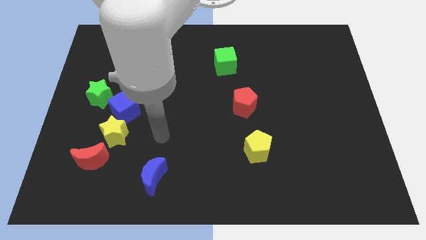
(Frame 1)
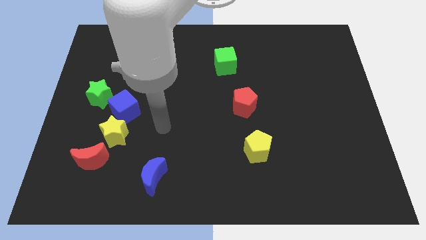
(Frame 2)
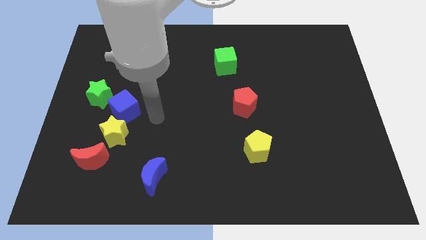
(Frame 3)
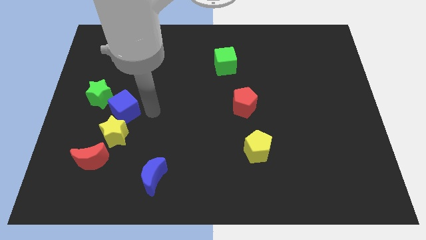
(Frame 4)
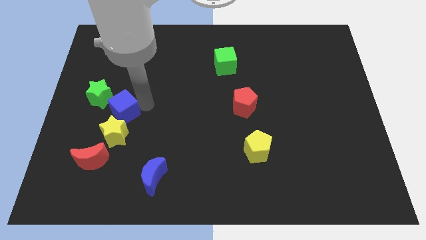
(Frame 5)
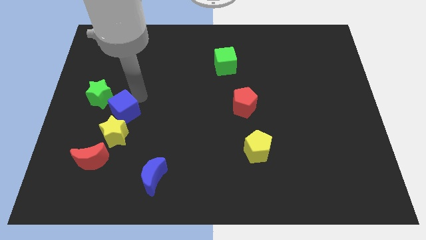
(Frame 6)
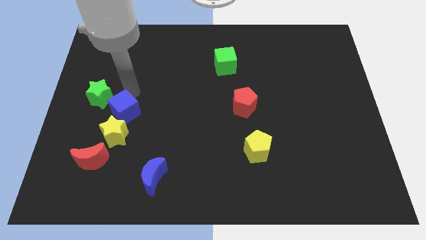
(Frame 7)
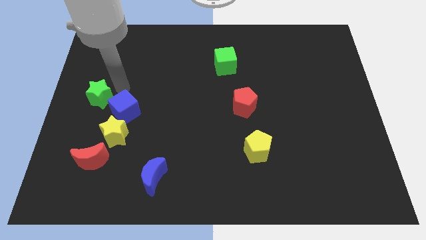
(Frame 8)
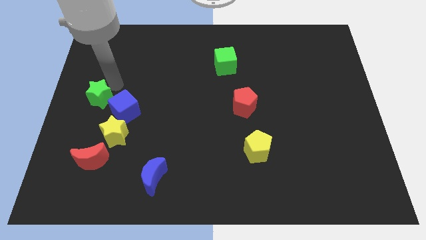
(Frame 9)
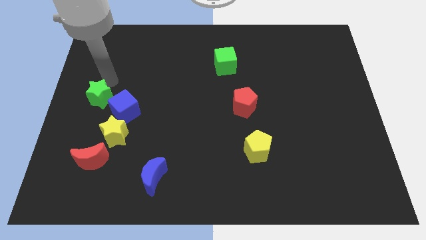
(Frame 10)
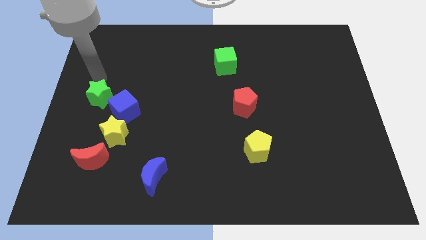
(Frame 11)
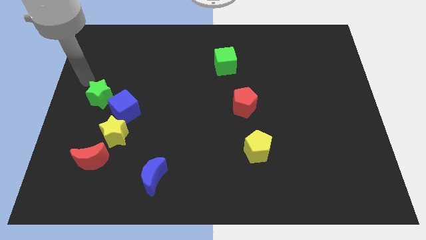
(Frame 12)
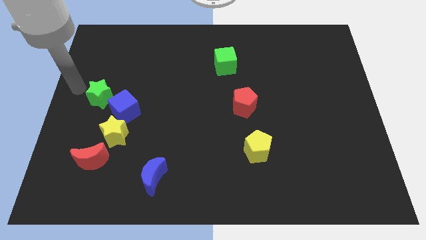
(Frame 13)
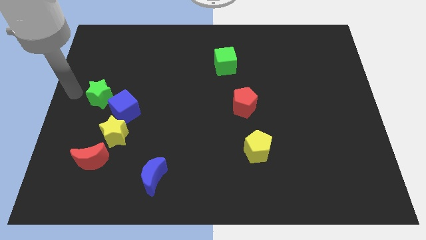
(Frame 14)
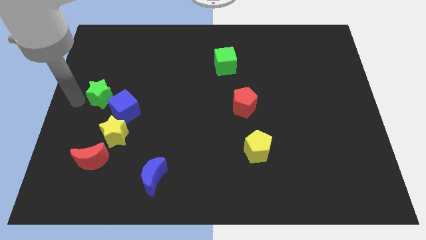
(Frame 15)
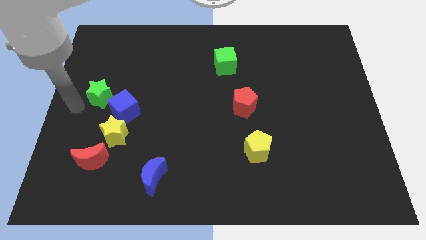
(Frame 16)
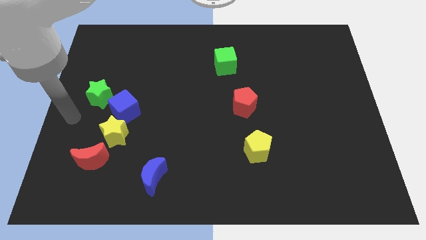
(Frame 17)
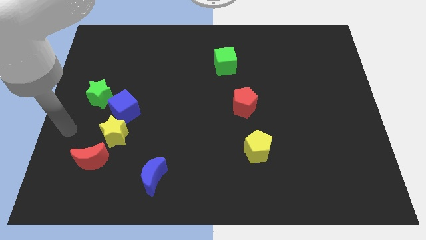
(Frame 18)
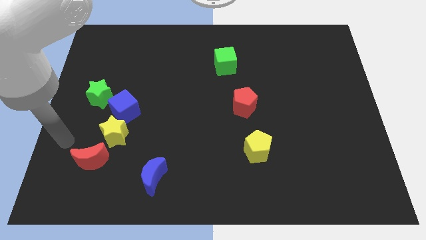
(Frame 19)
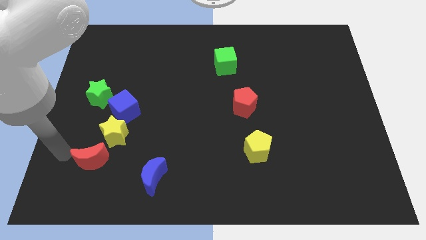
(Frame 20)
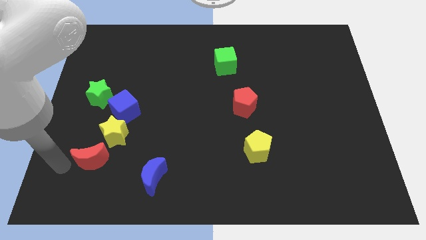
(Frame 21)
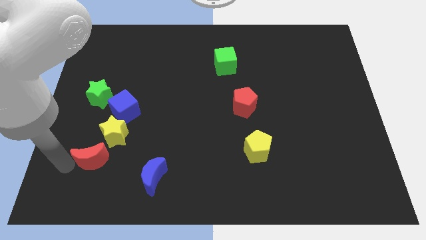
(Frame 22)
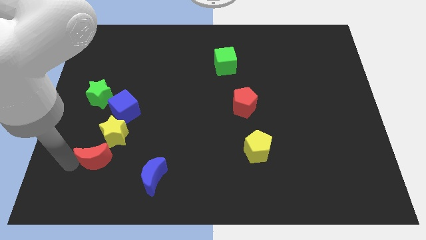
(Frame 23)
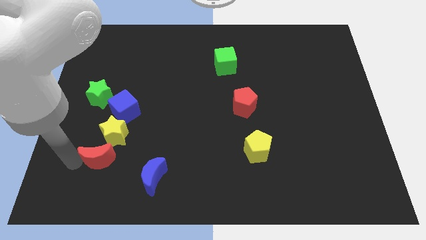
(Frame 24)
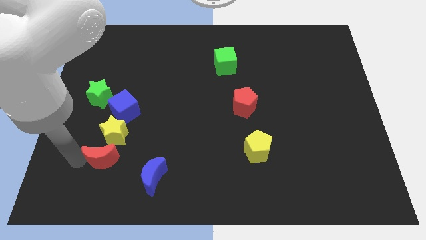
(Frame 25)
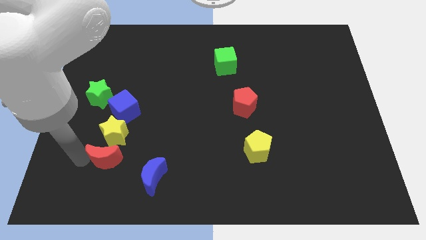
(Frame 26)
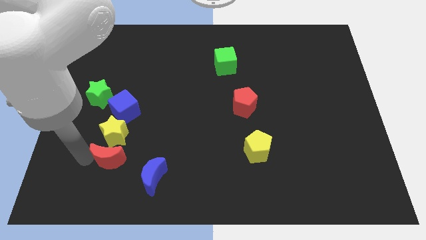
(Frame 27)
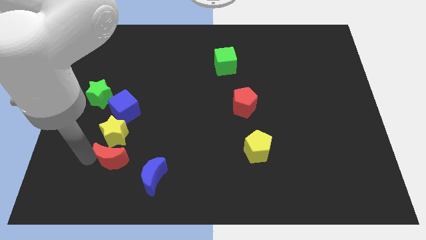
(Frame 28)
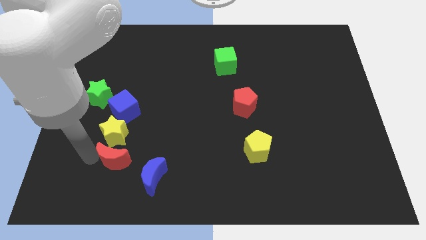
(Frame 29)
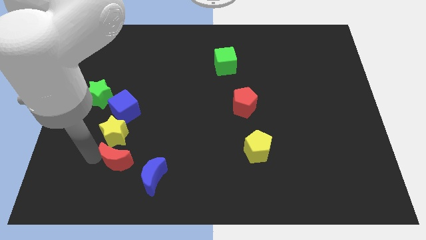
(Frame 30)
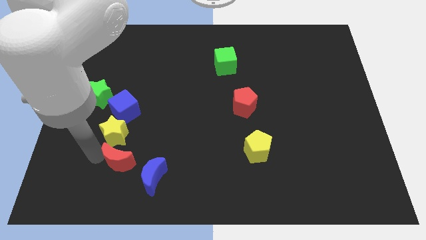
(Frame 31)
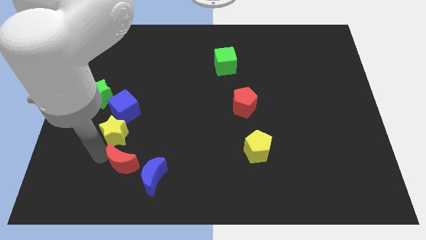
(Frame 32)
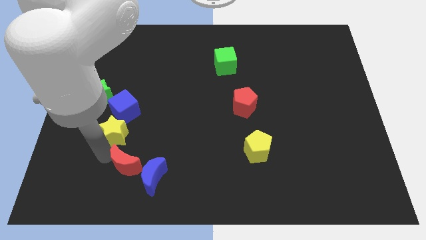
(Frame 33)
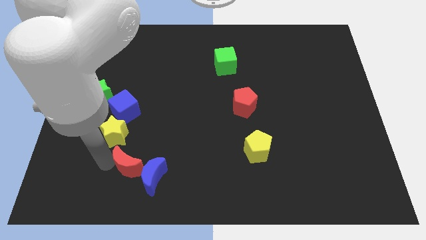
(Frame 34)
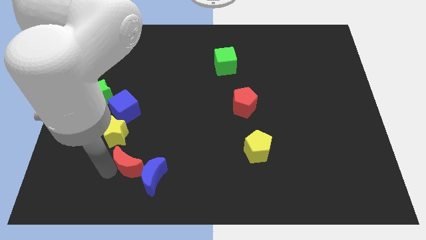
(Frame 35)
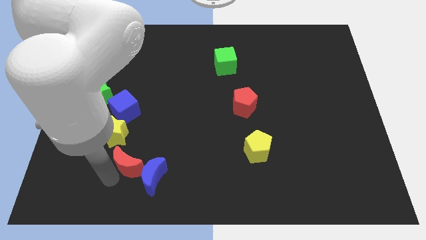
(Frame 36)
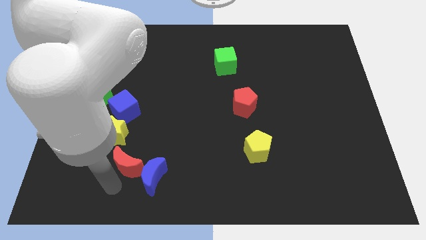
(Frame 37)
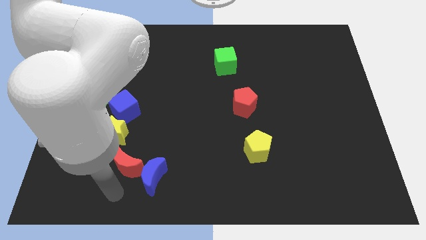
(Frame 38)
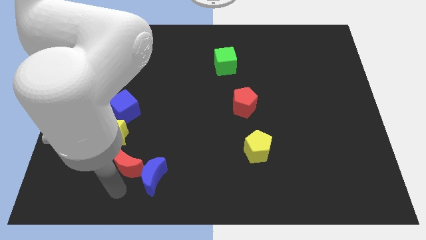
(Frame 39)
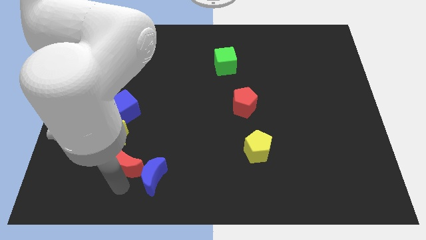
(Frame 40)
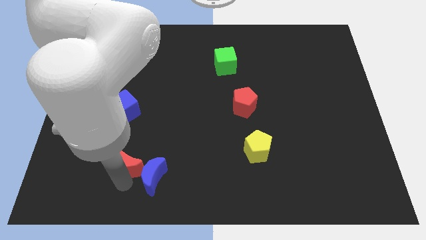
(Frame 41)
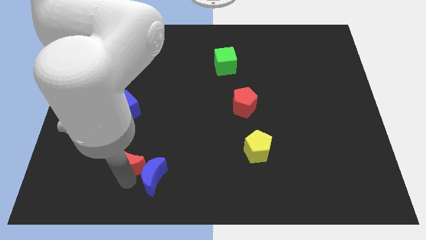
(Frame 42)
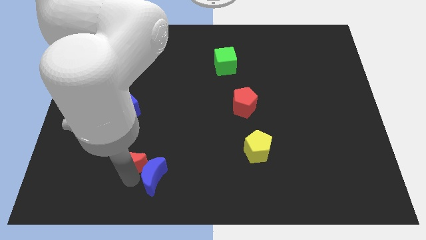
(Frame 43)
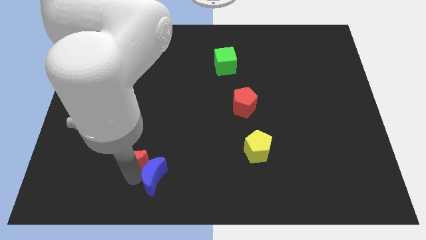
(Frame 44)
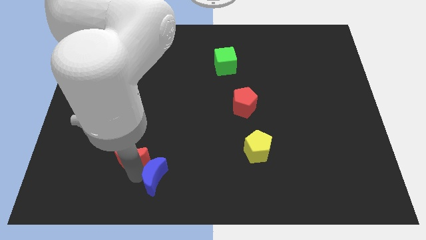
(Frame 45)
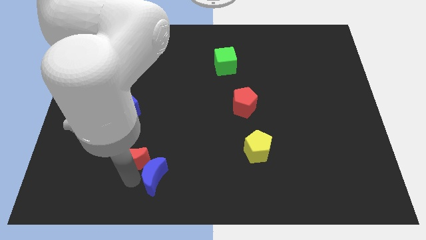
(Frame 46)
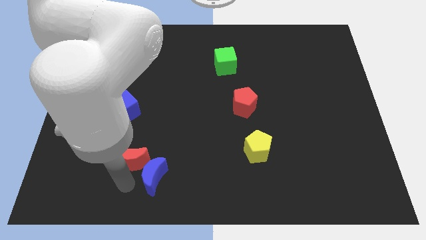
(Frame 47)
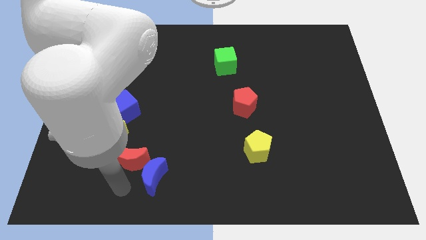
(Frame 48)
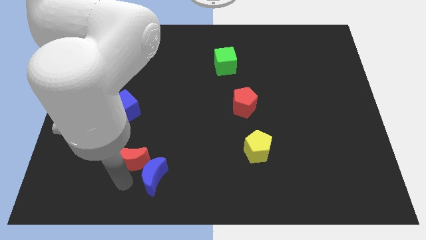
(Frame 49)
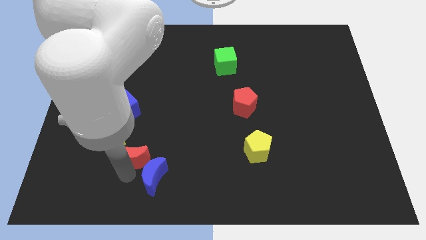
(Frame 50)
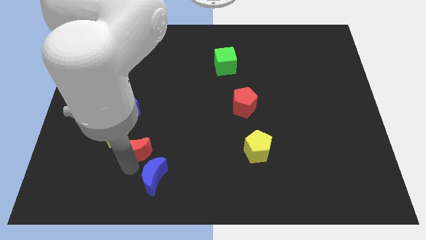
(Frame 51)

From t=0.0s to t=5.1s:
slide the red moon a little up and then right

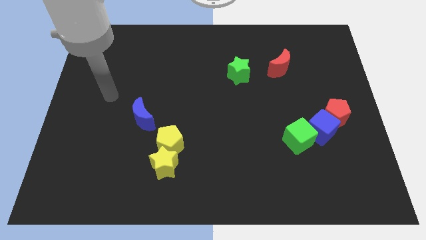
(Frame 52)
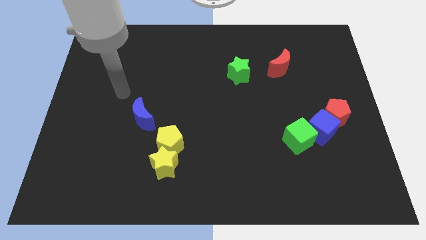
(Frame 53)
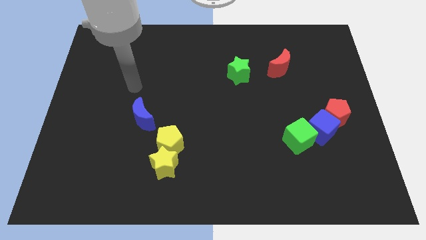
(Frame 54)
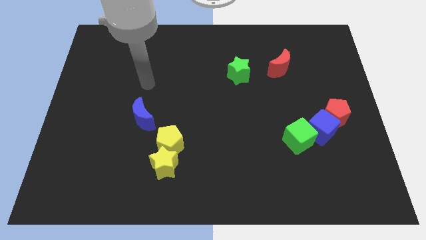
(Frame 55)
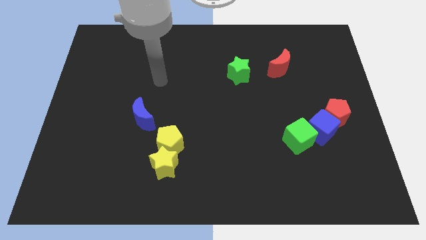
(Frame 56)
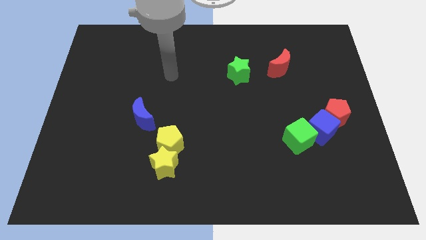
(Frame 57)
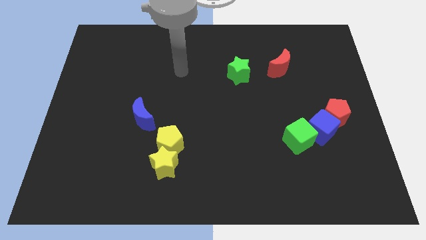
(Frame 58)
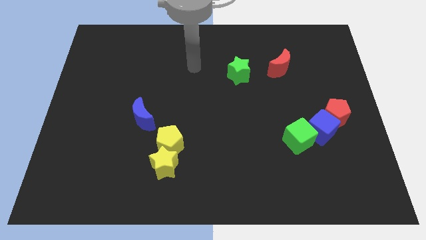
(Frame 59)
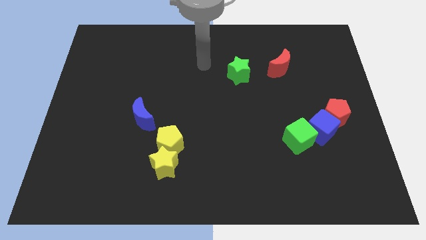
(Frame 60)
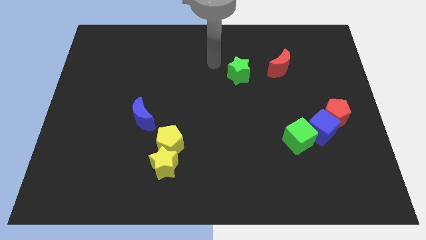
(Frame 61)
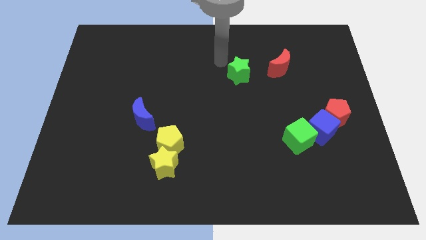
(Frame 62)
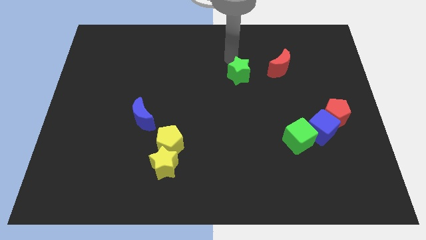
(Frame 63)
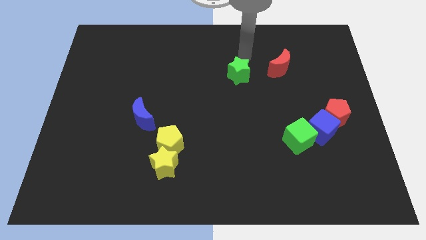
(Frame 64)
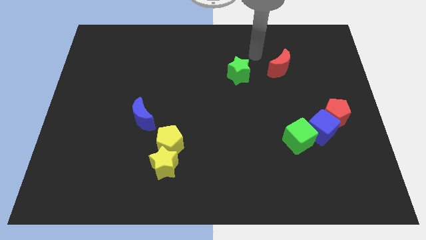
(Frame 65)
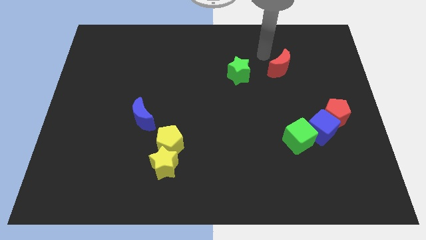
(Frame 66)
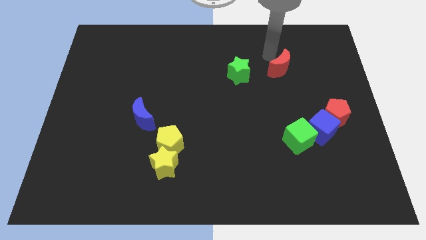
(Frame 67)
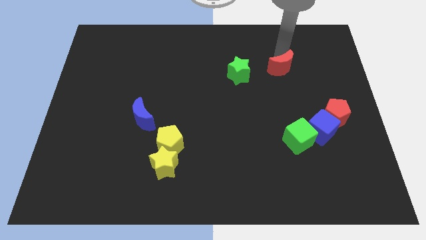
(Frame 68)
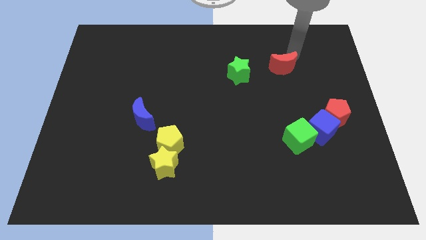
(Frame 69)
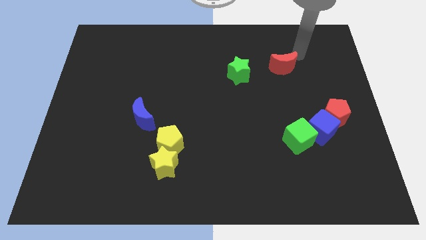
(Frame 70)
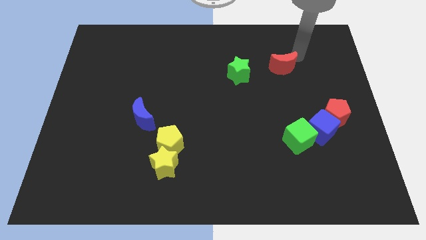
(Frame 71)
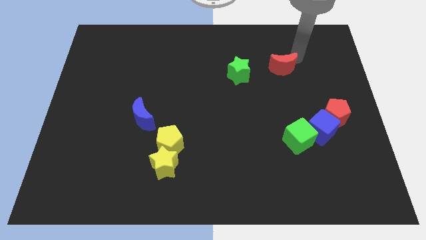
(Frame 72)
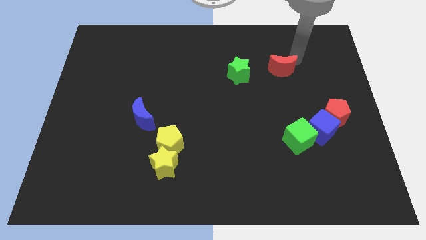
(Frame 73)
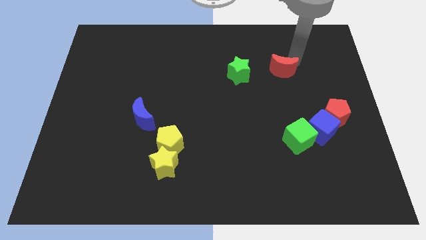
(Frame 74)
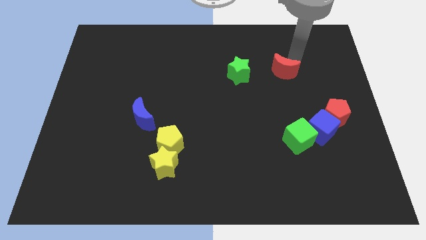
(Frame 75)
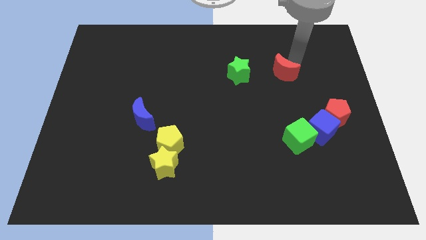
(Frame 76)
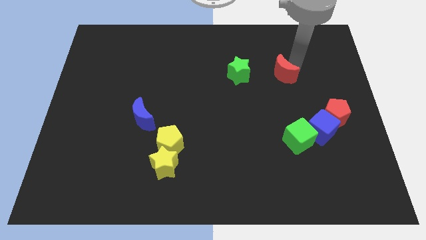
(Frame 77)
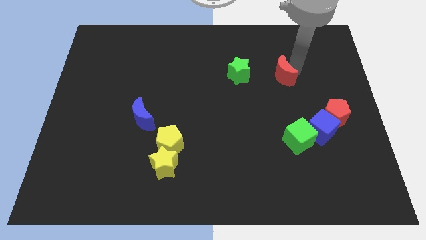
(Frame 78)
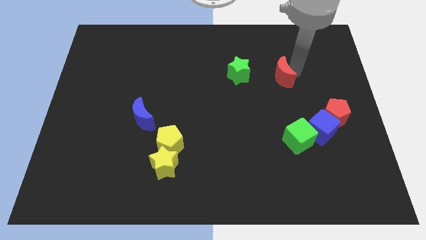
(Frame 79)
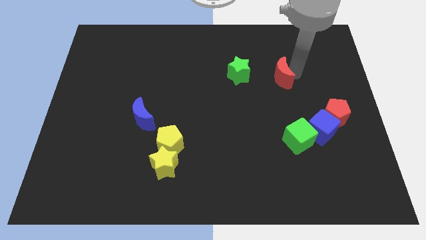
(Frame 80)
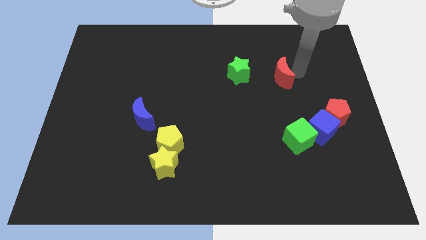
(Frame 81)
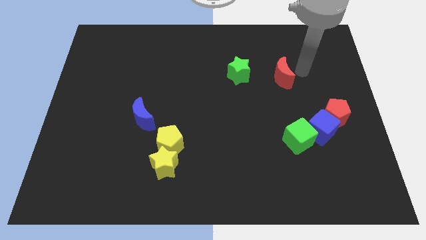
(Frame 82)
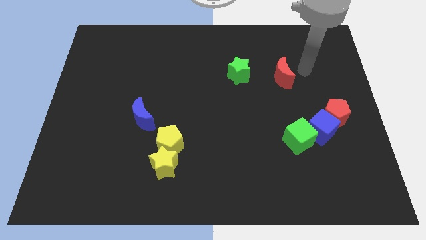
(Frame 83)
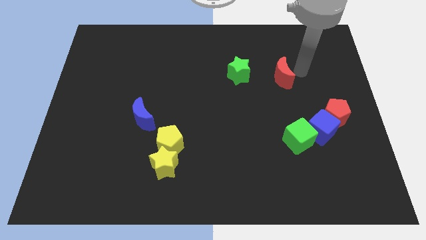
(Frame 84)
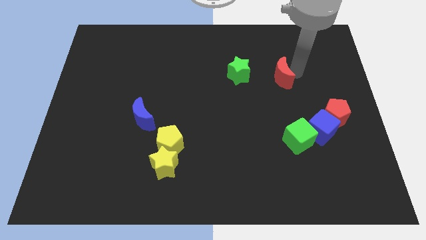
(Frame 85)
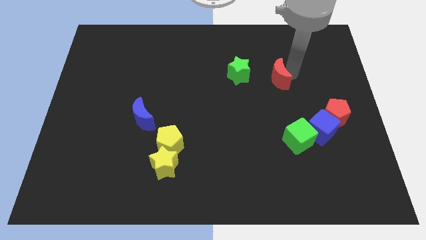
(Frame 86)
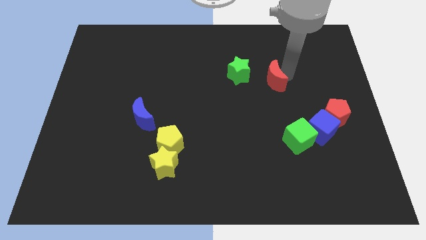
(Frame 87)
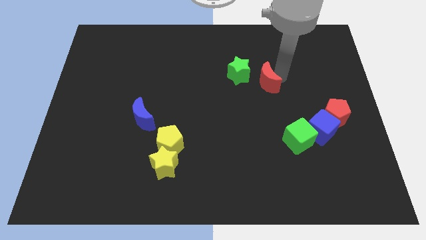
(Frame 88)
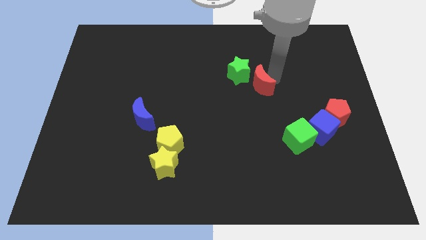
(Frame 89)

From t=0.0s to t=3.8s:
slightly slide the red moon downwards and left diagonally
